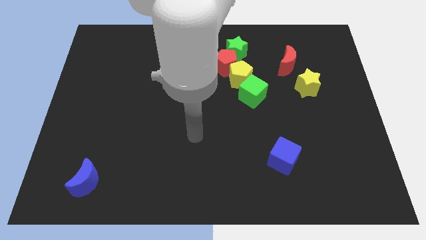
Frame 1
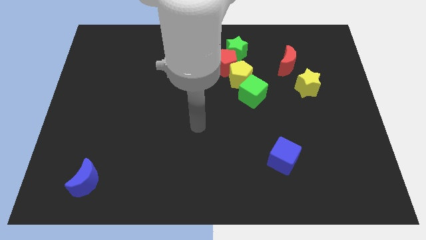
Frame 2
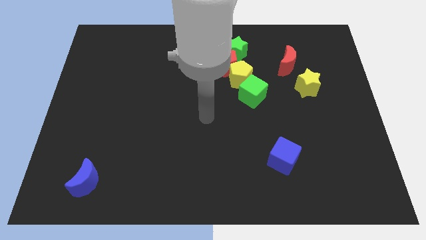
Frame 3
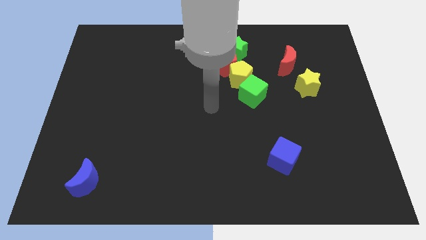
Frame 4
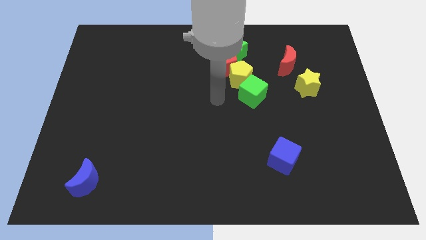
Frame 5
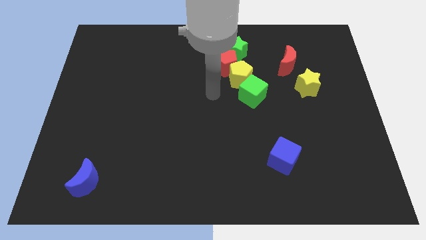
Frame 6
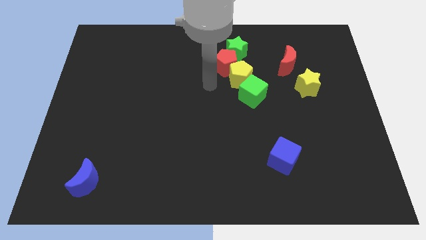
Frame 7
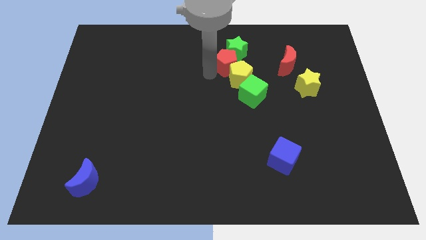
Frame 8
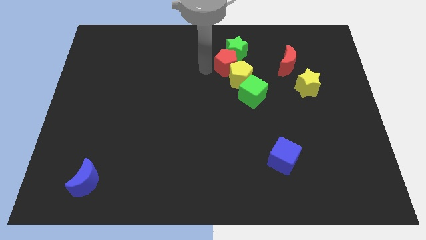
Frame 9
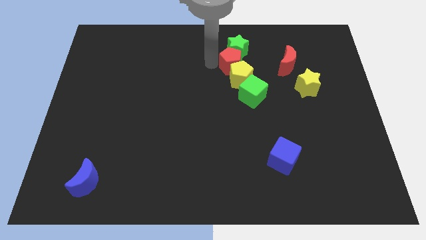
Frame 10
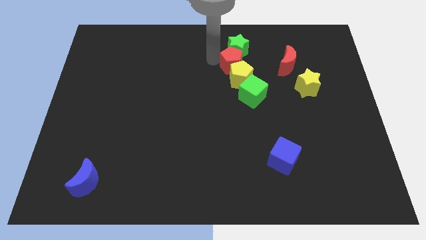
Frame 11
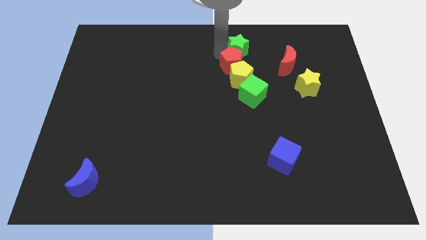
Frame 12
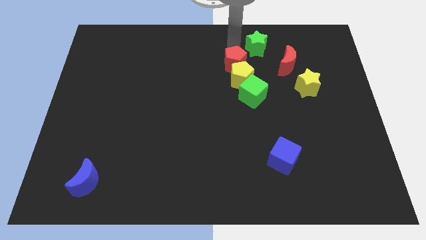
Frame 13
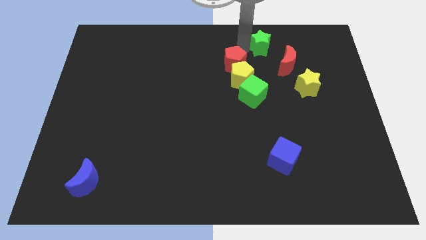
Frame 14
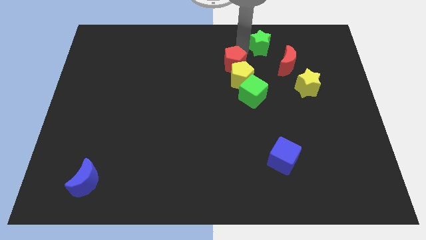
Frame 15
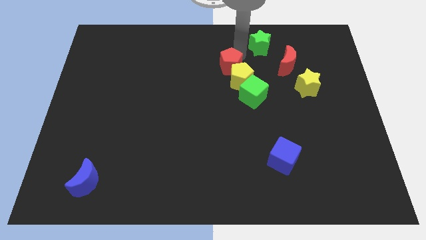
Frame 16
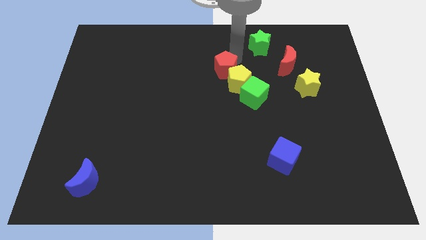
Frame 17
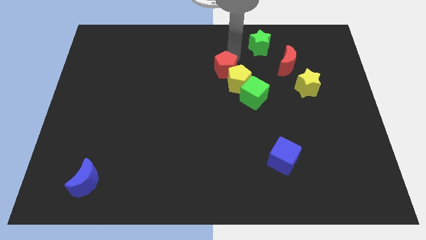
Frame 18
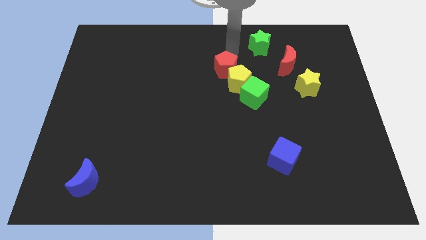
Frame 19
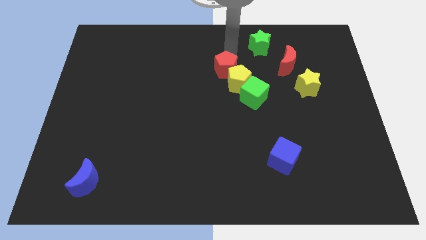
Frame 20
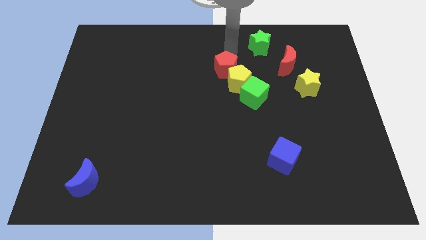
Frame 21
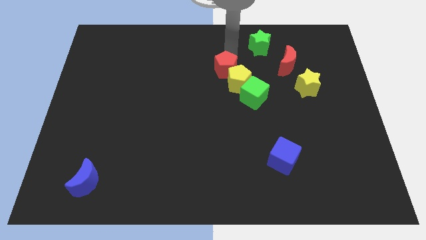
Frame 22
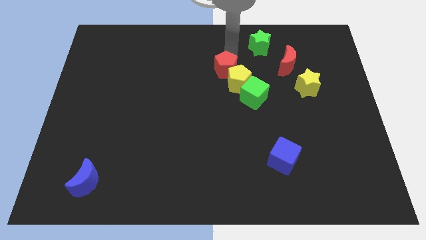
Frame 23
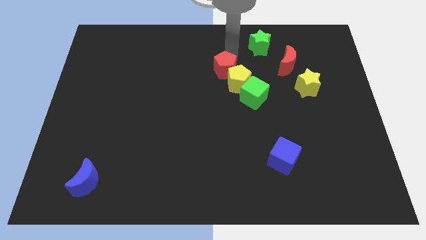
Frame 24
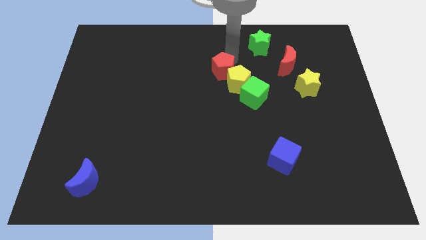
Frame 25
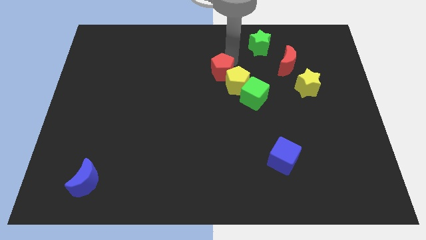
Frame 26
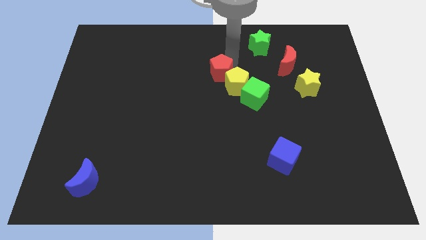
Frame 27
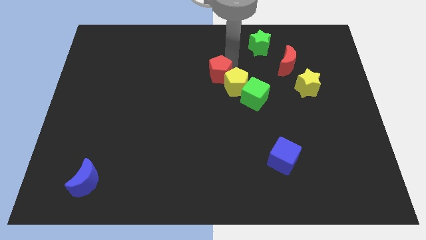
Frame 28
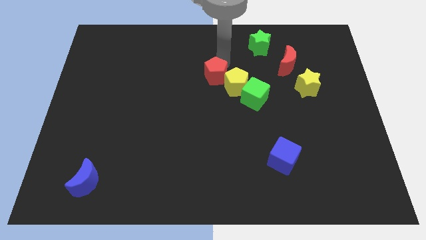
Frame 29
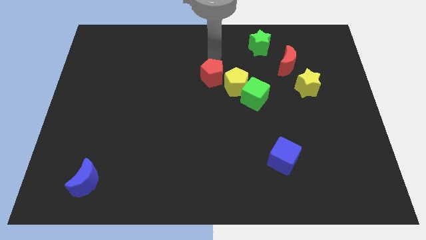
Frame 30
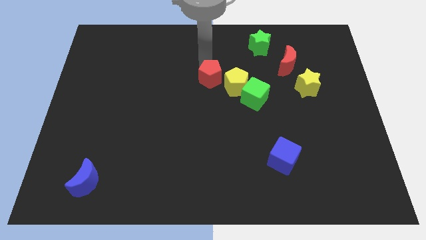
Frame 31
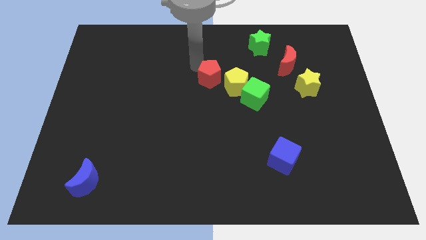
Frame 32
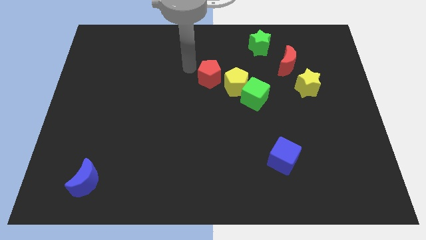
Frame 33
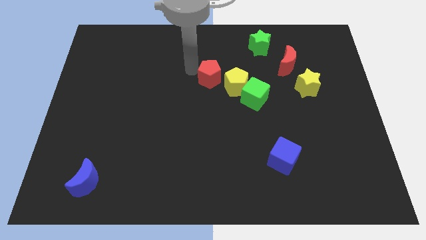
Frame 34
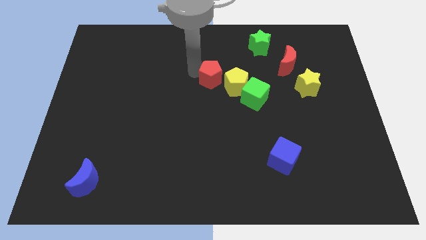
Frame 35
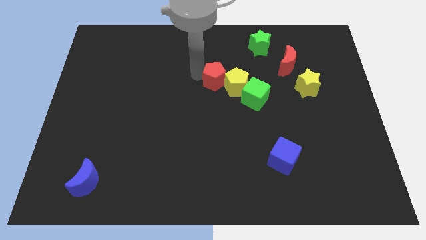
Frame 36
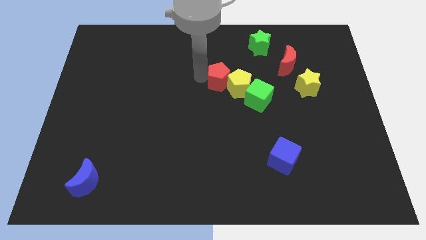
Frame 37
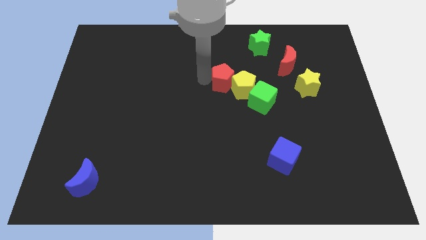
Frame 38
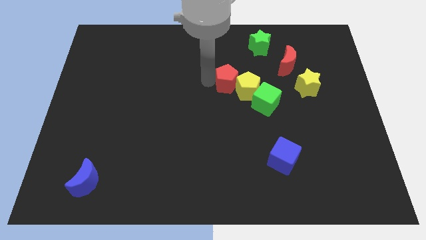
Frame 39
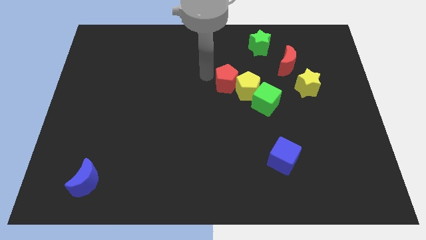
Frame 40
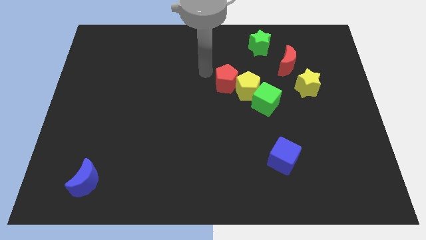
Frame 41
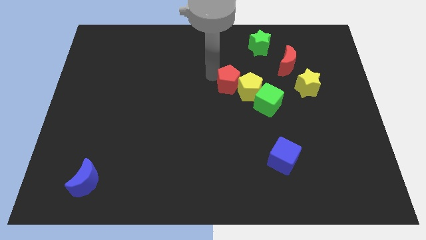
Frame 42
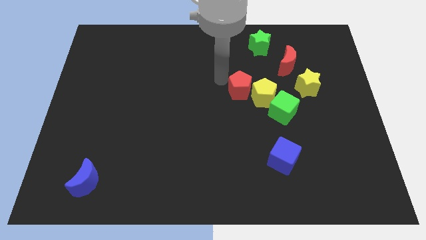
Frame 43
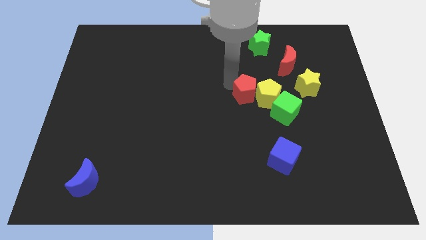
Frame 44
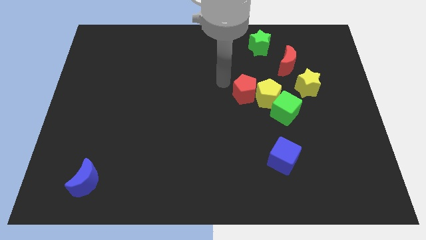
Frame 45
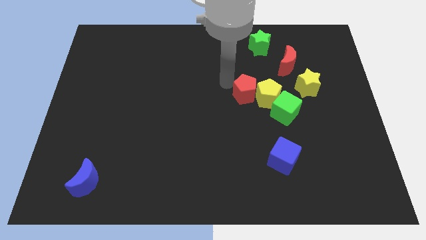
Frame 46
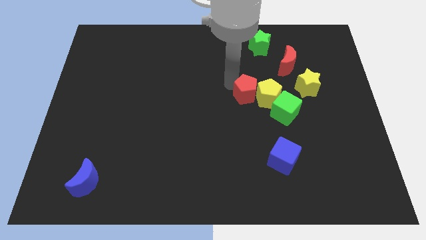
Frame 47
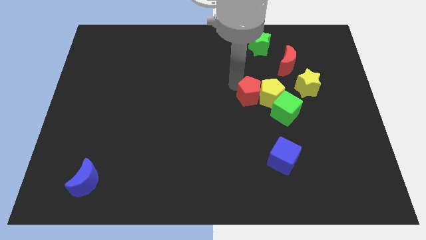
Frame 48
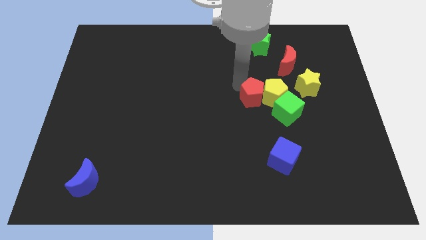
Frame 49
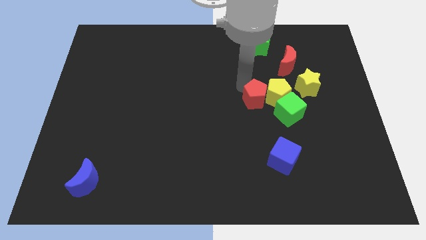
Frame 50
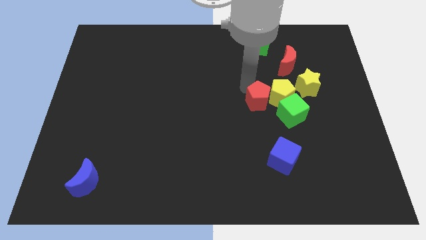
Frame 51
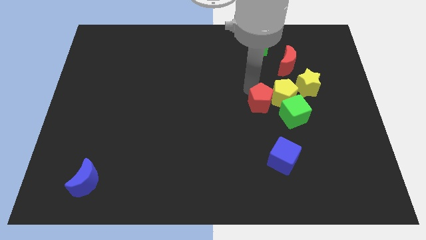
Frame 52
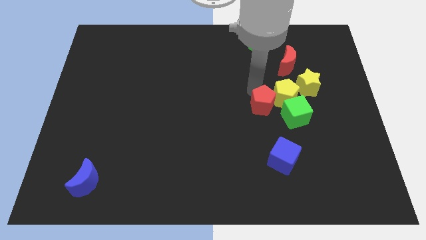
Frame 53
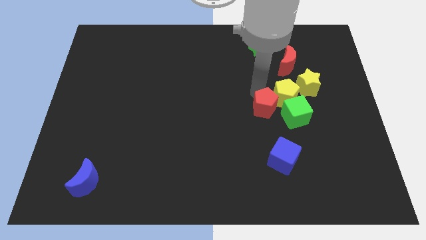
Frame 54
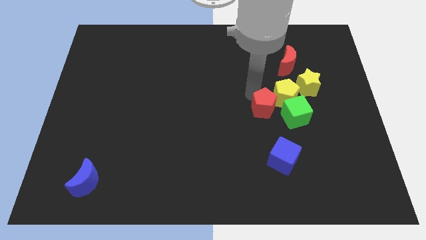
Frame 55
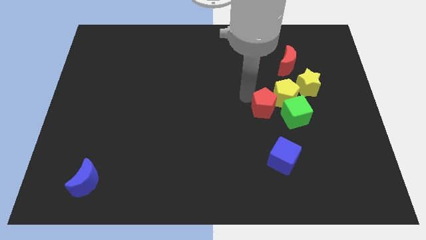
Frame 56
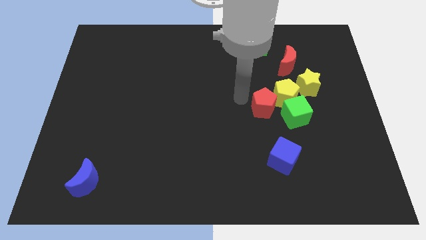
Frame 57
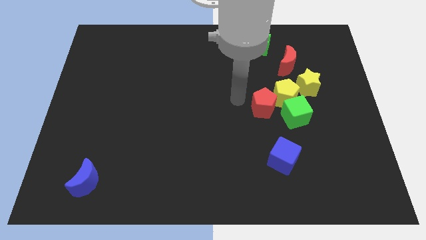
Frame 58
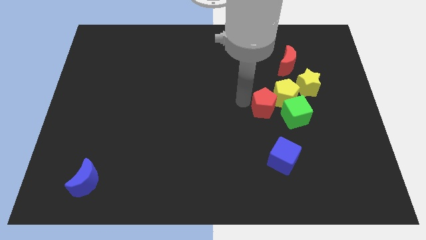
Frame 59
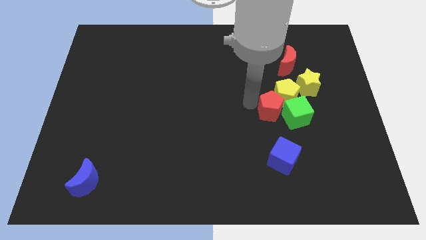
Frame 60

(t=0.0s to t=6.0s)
push the red pentagon next to the green cube

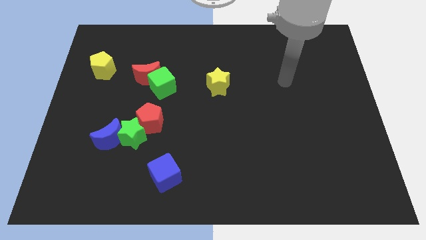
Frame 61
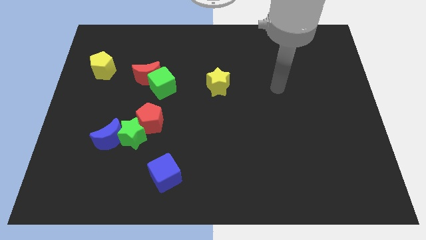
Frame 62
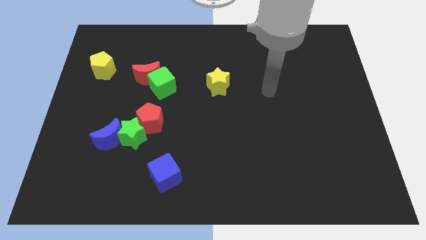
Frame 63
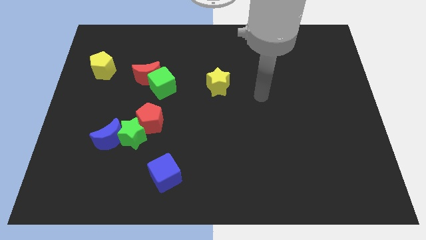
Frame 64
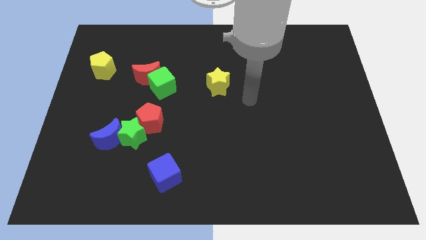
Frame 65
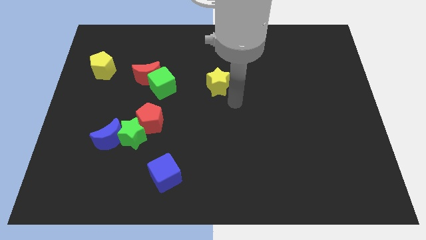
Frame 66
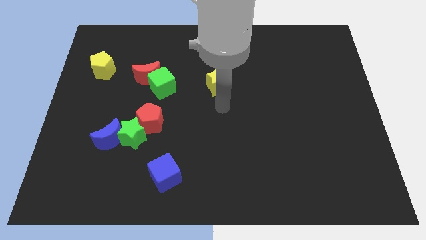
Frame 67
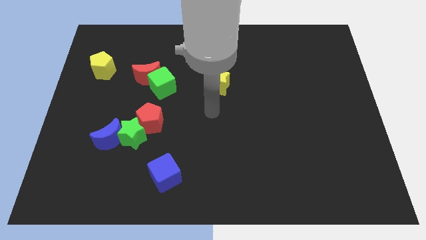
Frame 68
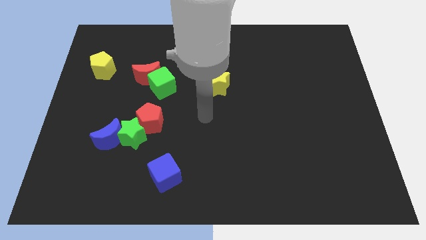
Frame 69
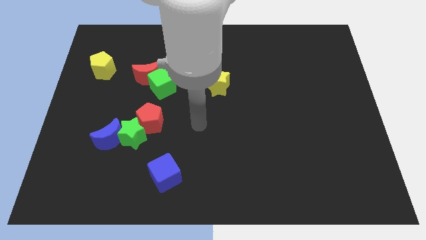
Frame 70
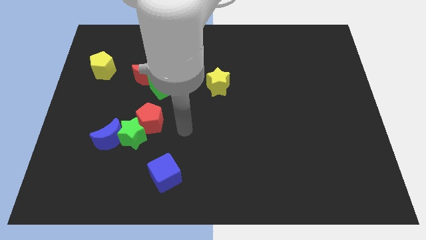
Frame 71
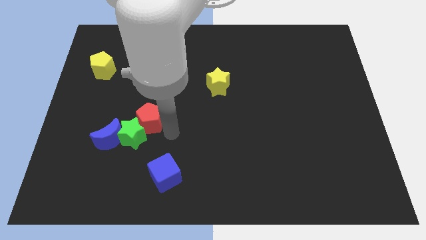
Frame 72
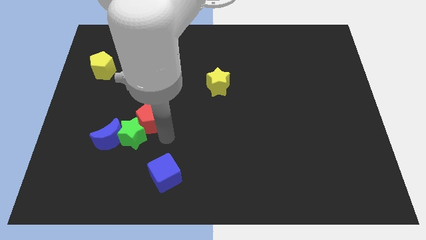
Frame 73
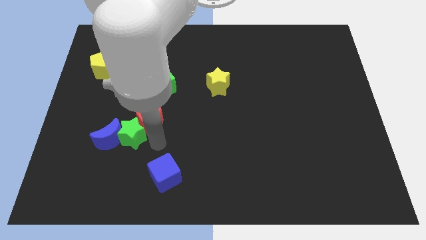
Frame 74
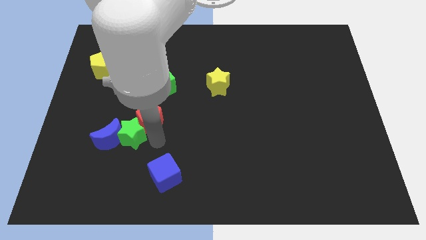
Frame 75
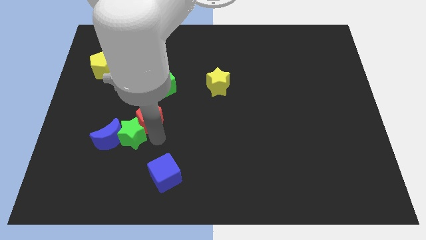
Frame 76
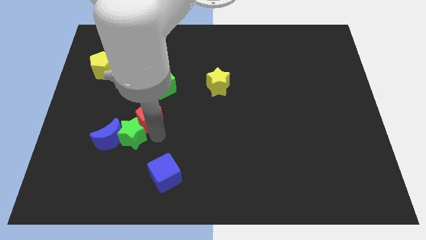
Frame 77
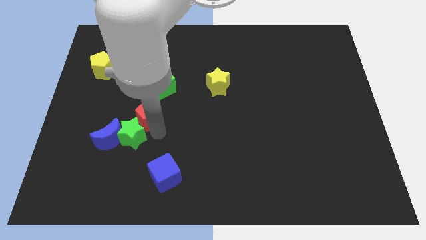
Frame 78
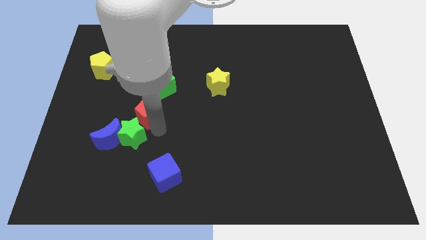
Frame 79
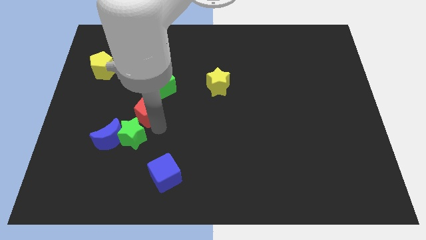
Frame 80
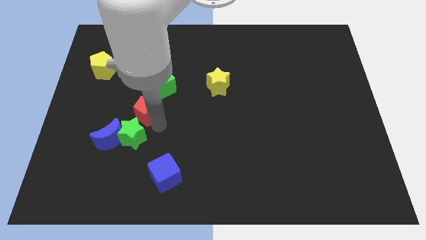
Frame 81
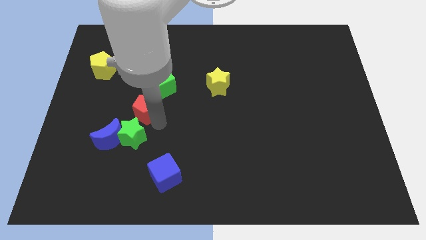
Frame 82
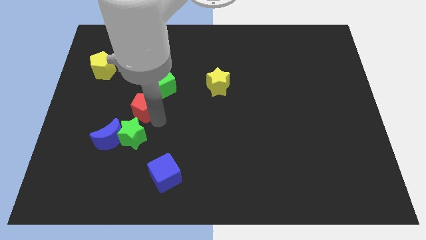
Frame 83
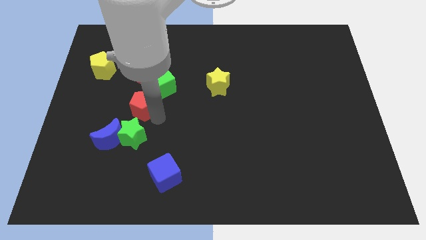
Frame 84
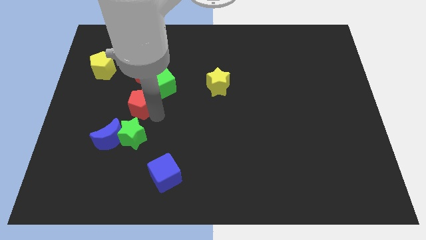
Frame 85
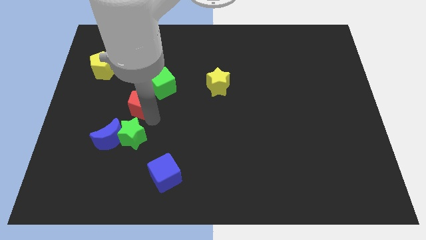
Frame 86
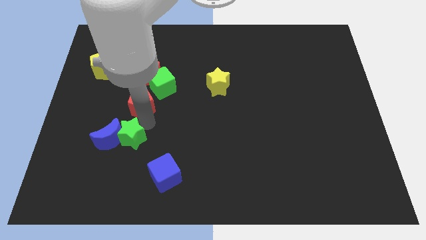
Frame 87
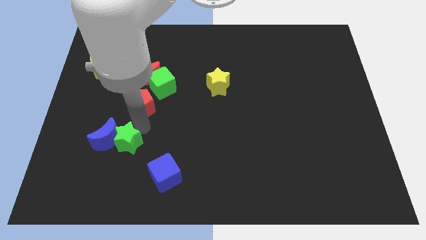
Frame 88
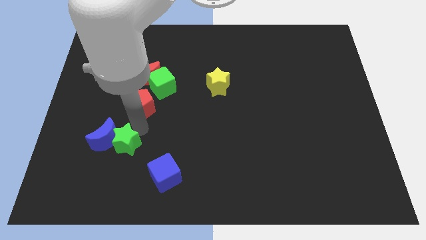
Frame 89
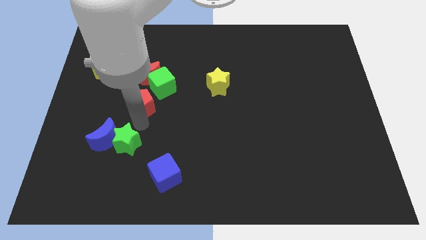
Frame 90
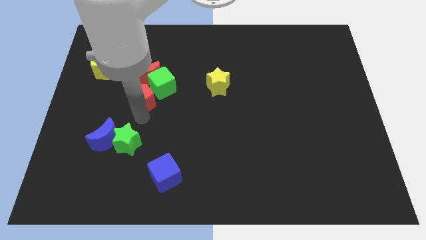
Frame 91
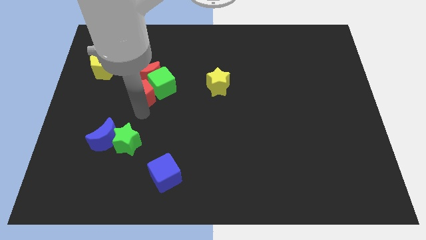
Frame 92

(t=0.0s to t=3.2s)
push the red pentagon towards the red moon
